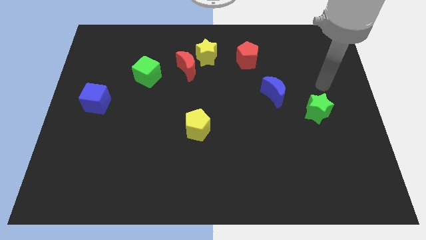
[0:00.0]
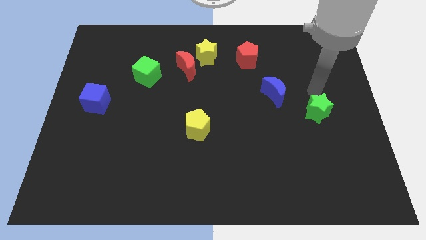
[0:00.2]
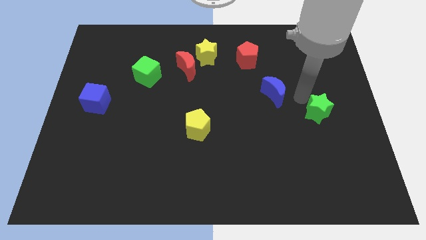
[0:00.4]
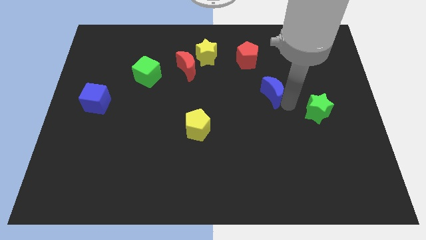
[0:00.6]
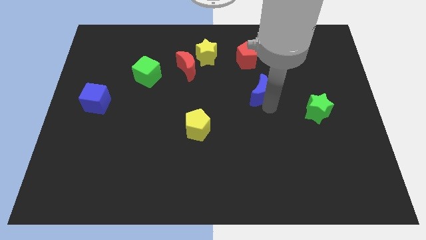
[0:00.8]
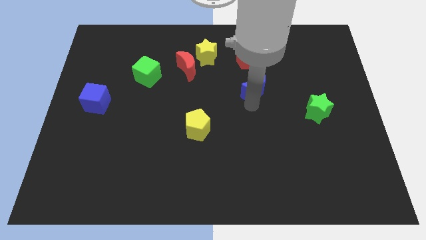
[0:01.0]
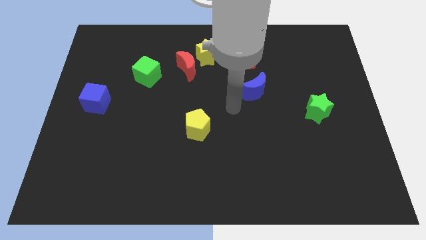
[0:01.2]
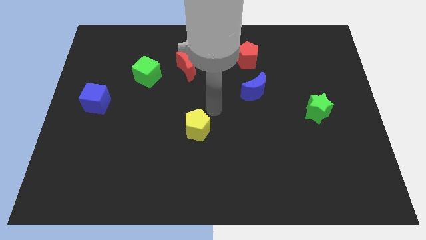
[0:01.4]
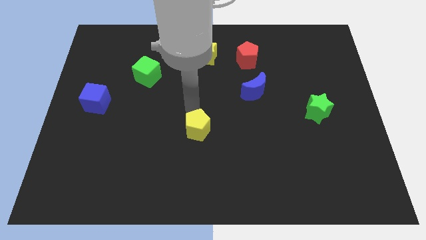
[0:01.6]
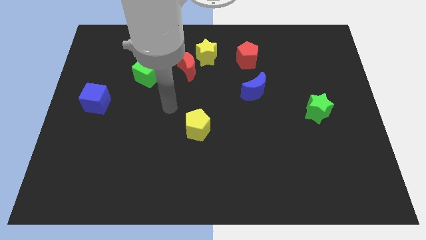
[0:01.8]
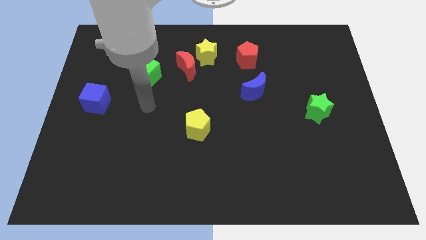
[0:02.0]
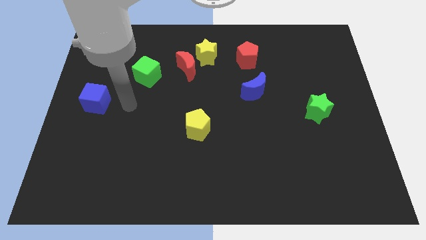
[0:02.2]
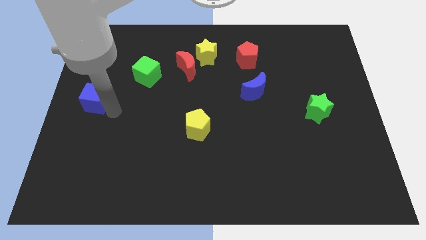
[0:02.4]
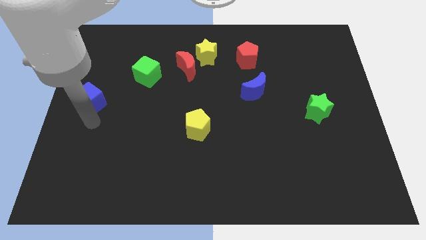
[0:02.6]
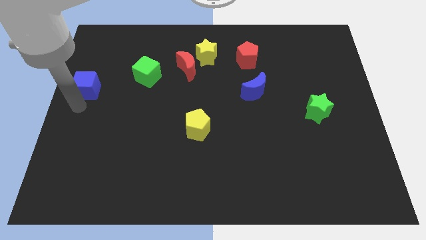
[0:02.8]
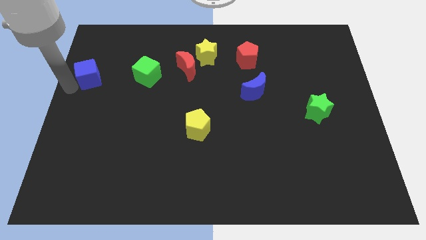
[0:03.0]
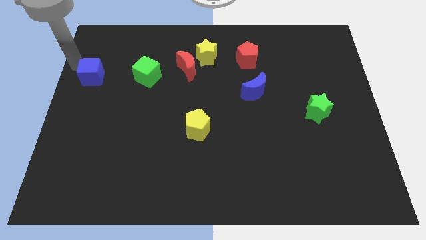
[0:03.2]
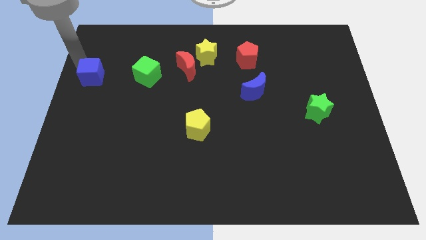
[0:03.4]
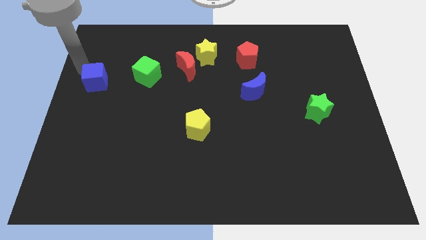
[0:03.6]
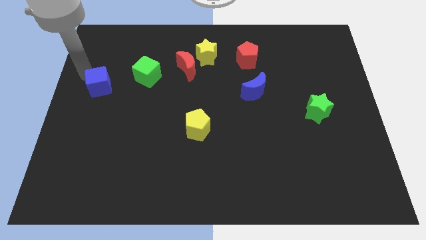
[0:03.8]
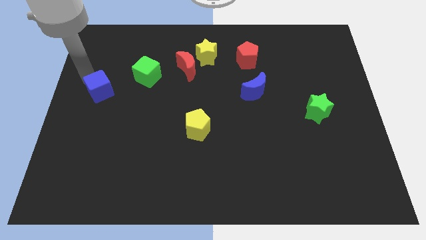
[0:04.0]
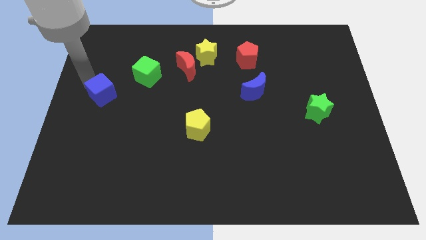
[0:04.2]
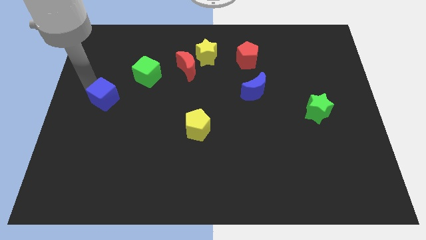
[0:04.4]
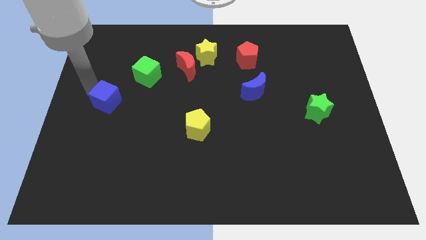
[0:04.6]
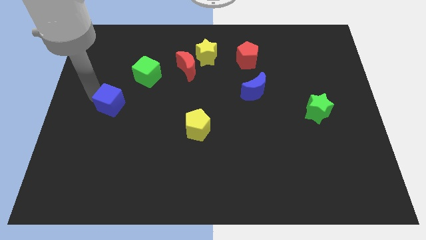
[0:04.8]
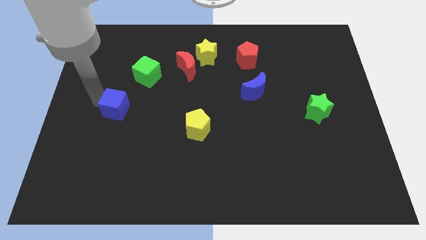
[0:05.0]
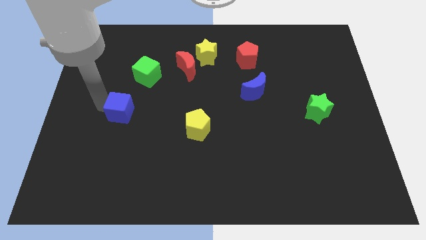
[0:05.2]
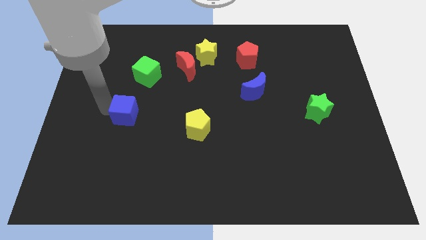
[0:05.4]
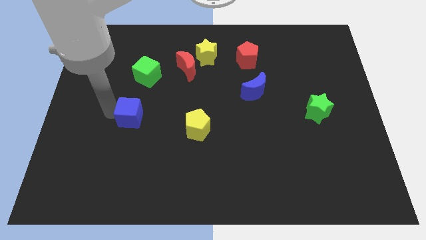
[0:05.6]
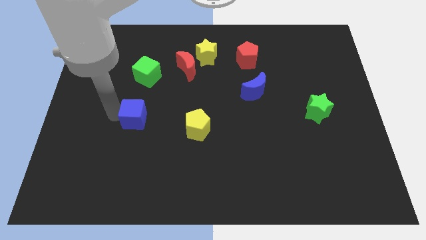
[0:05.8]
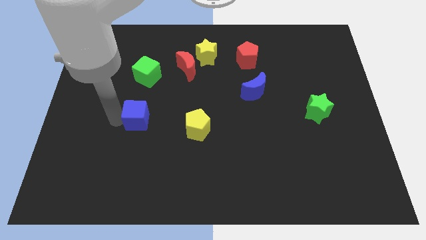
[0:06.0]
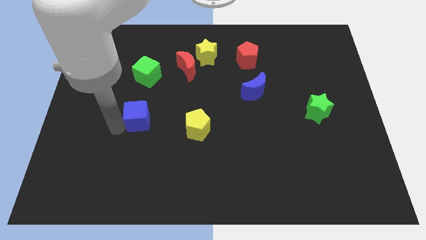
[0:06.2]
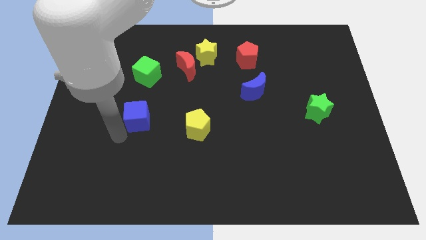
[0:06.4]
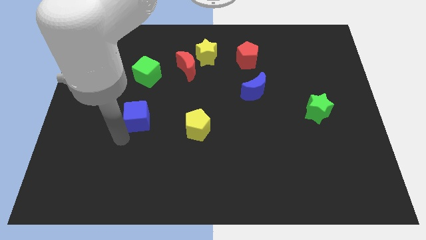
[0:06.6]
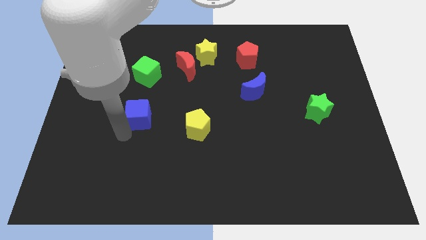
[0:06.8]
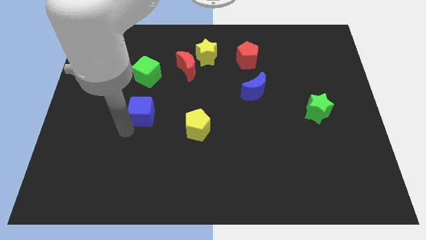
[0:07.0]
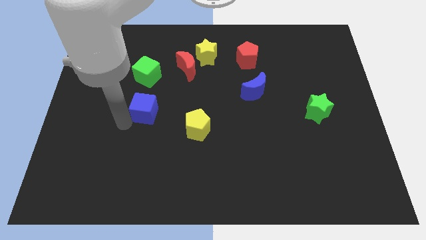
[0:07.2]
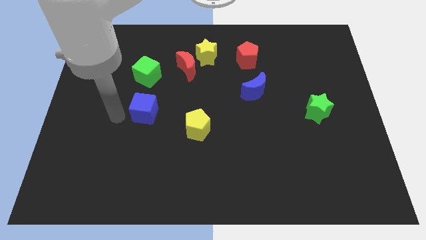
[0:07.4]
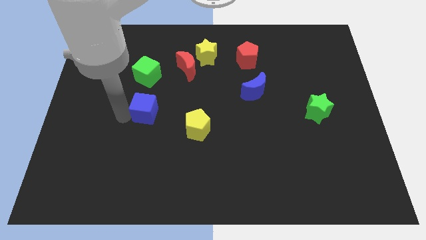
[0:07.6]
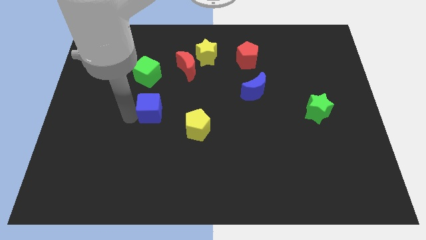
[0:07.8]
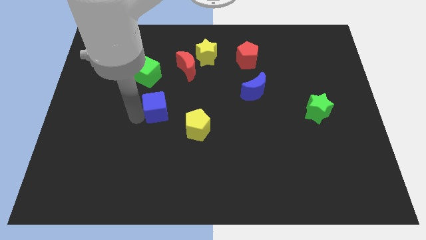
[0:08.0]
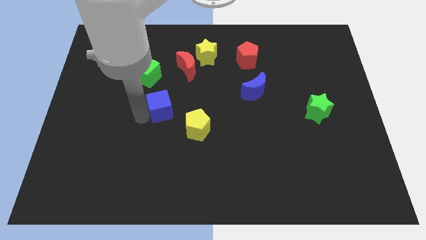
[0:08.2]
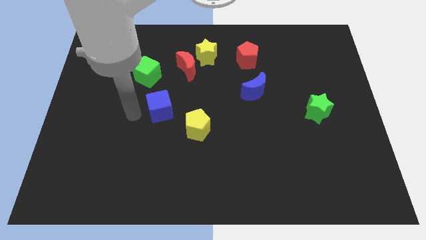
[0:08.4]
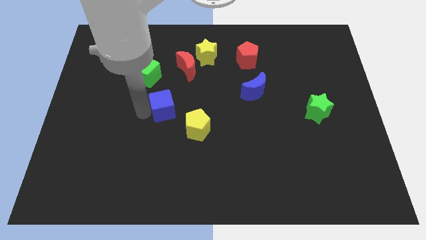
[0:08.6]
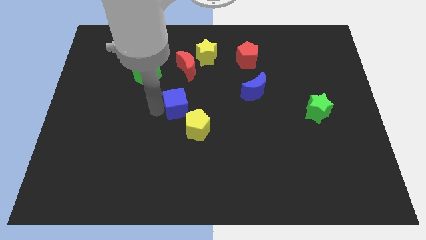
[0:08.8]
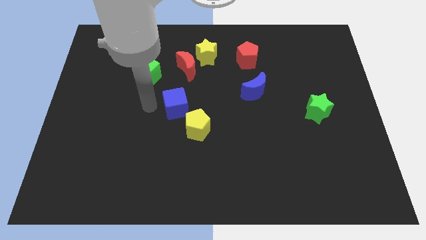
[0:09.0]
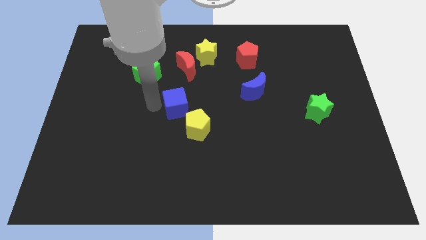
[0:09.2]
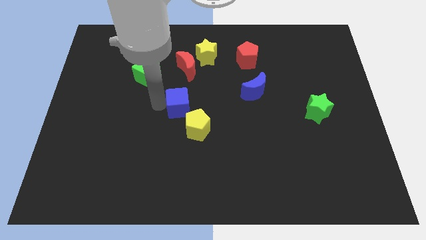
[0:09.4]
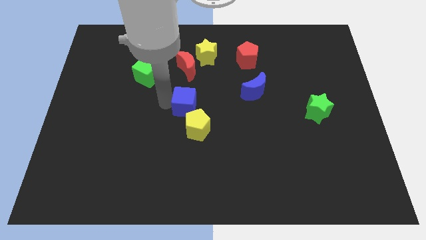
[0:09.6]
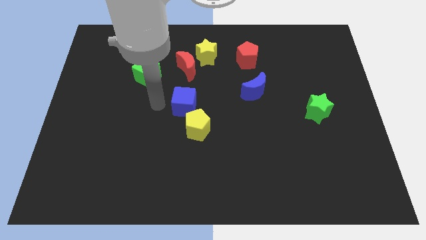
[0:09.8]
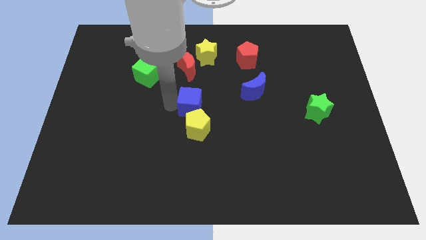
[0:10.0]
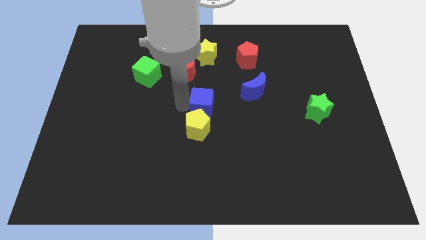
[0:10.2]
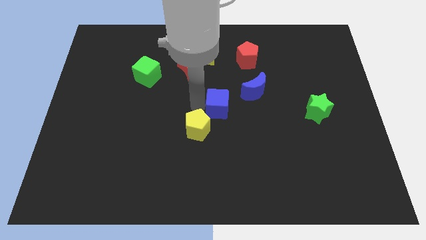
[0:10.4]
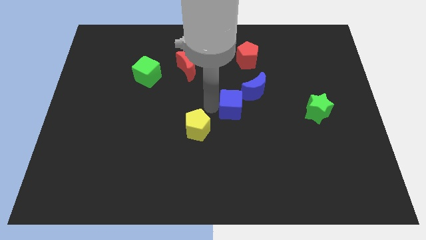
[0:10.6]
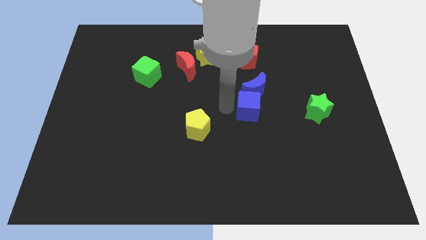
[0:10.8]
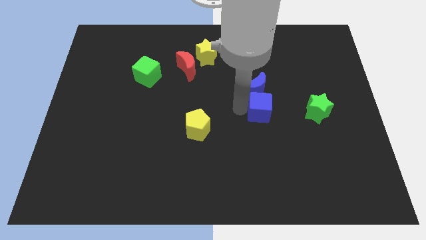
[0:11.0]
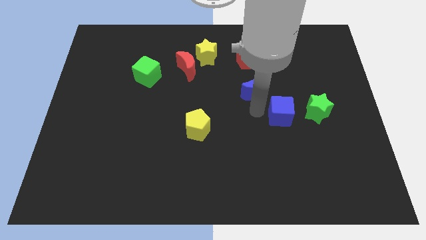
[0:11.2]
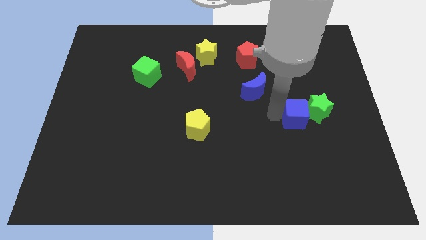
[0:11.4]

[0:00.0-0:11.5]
push the blue cube to the green star

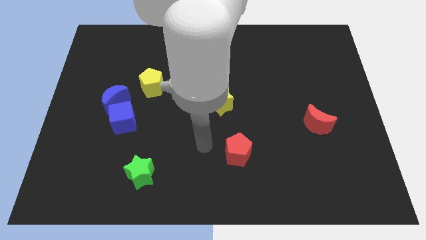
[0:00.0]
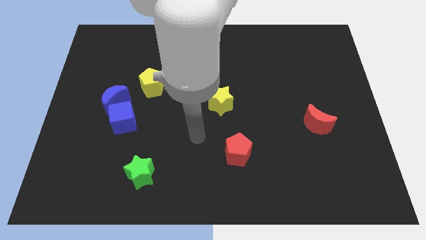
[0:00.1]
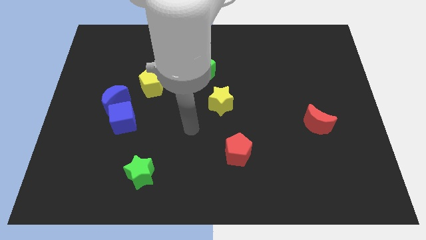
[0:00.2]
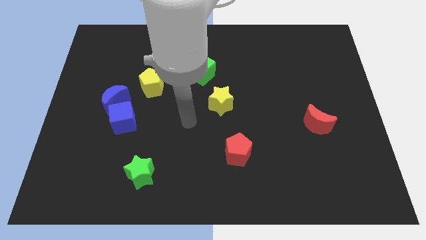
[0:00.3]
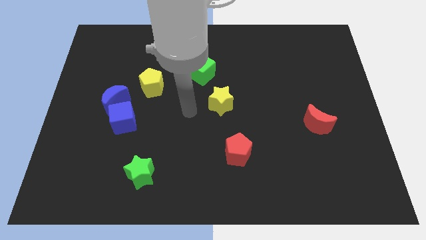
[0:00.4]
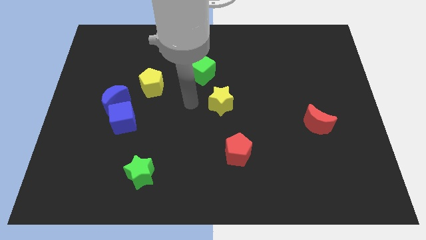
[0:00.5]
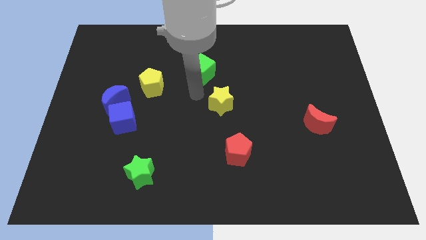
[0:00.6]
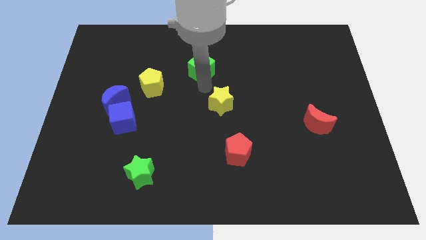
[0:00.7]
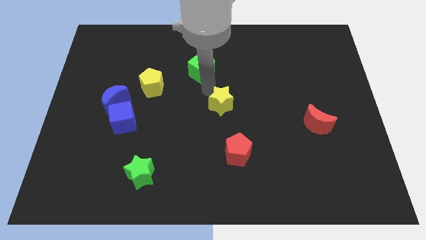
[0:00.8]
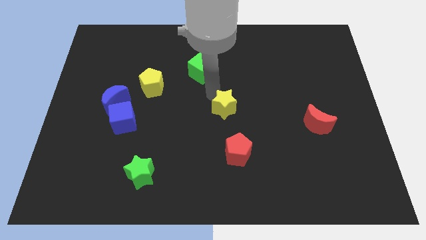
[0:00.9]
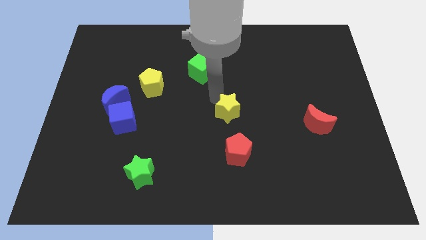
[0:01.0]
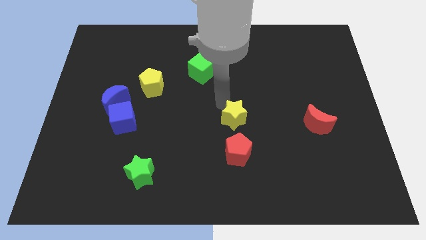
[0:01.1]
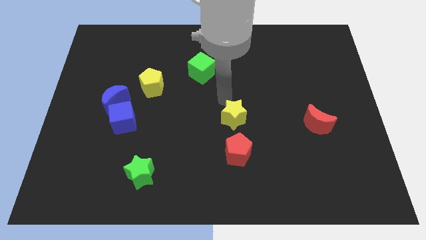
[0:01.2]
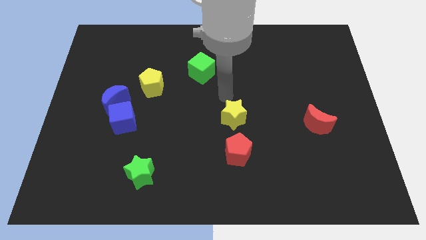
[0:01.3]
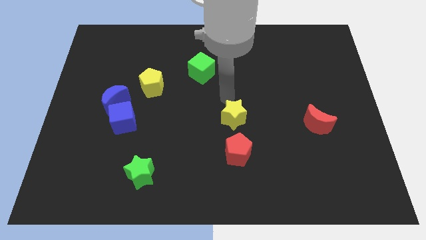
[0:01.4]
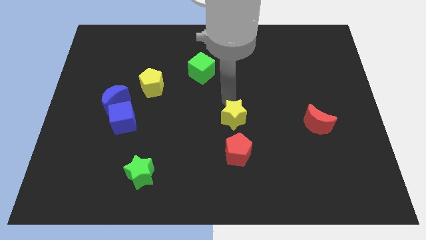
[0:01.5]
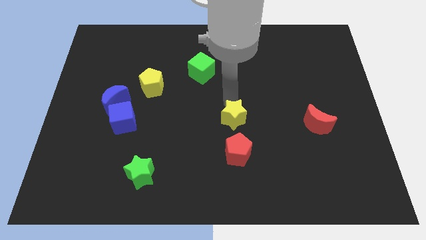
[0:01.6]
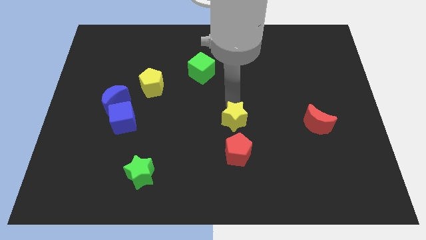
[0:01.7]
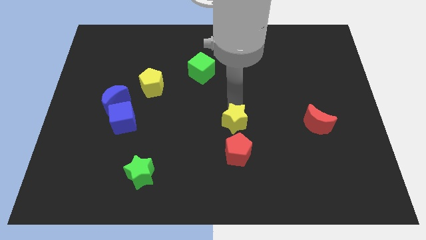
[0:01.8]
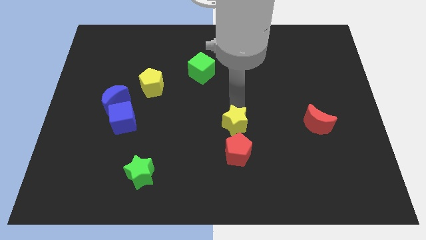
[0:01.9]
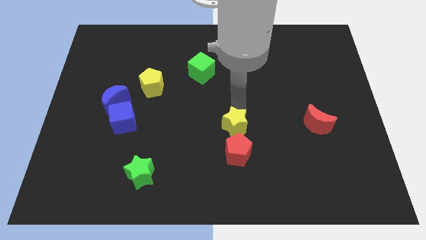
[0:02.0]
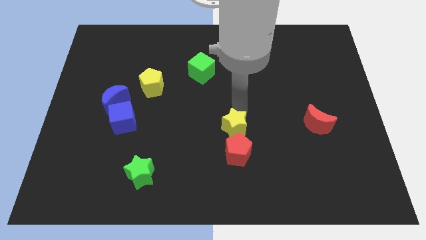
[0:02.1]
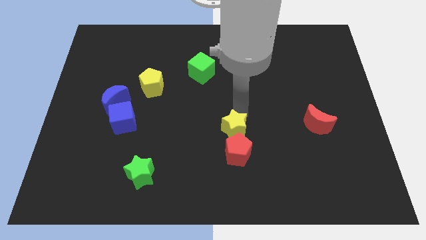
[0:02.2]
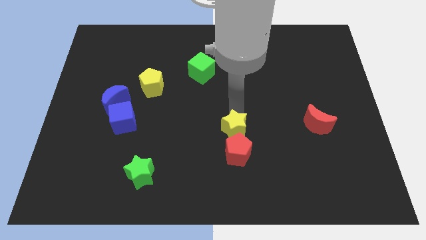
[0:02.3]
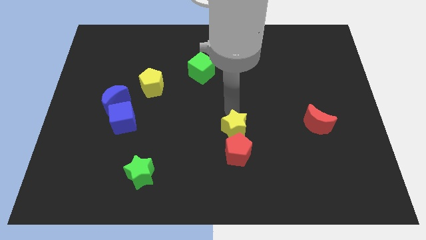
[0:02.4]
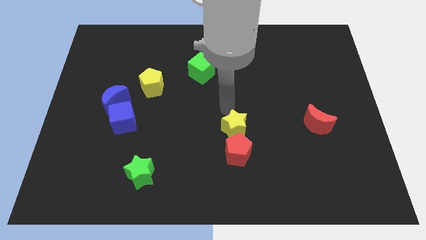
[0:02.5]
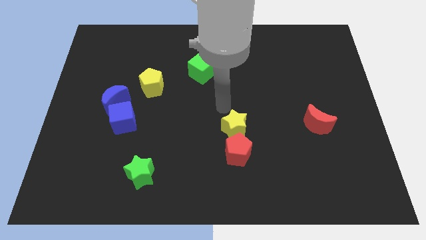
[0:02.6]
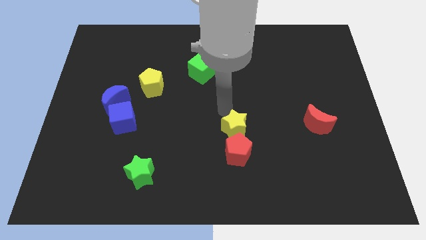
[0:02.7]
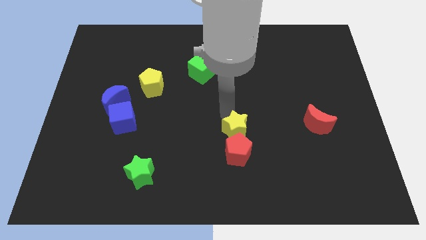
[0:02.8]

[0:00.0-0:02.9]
put the yellow star next to the red pentagon
